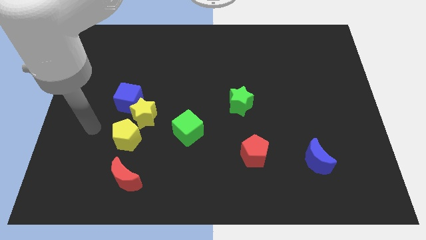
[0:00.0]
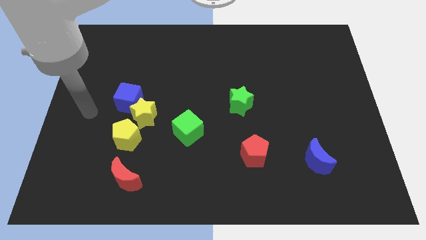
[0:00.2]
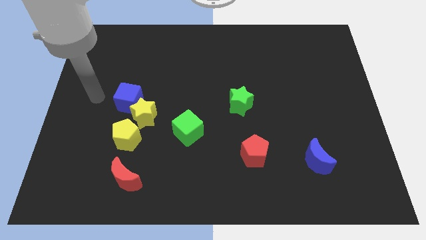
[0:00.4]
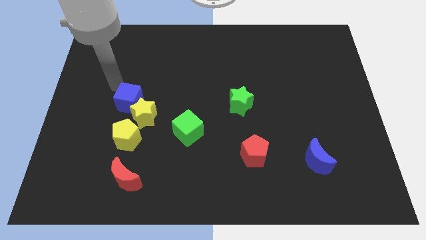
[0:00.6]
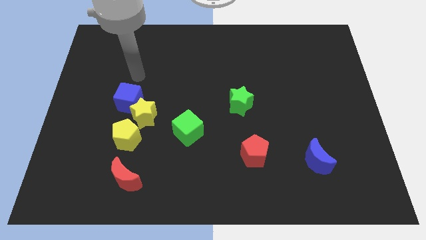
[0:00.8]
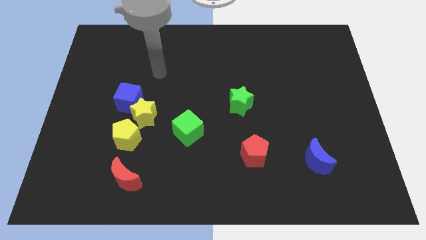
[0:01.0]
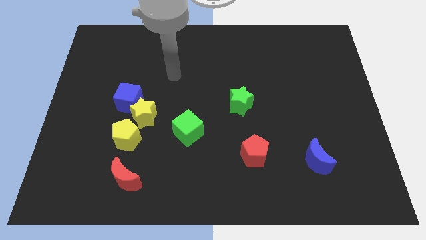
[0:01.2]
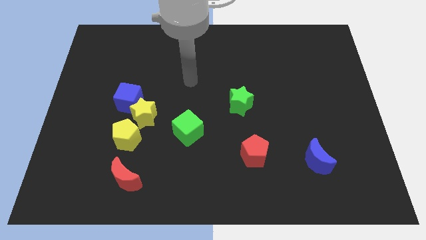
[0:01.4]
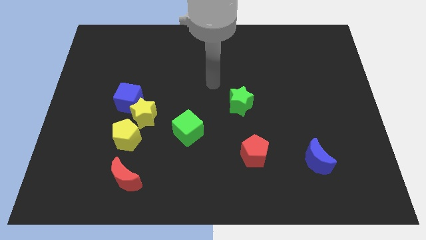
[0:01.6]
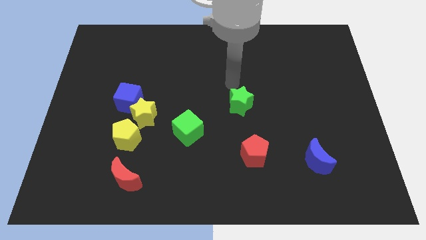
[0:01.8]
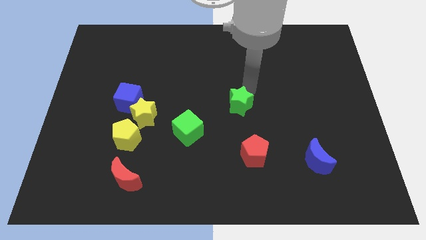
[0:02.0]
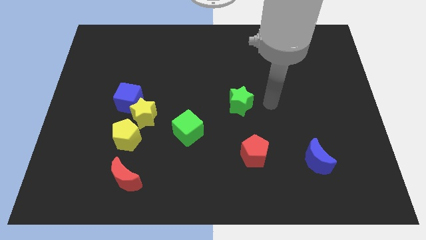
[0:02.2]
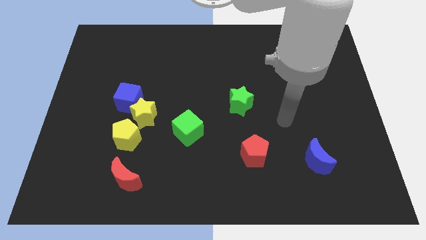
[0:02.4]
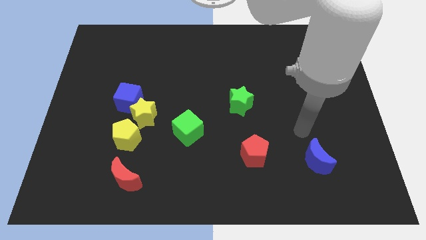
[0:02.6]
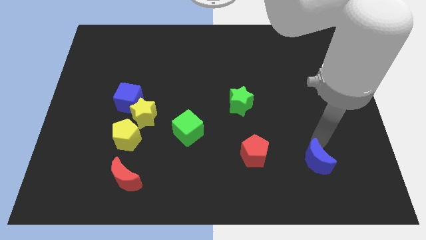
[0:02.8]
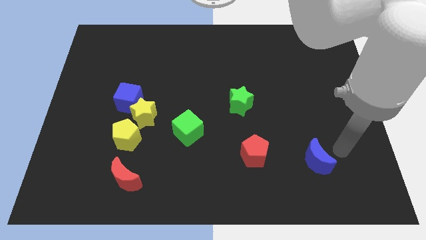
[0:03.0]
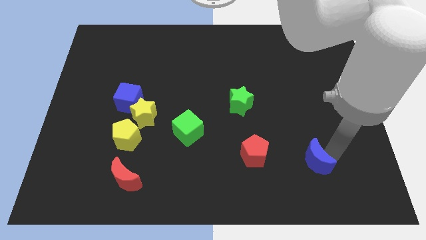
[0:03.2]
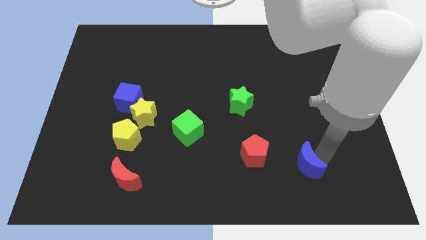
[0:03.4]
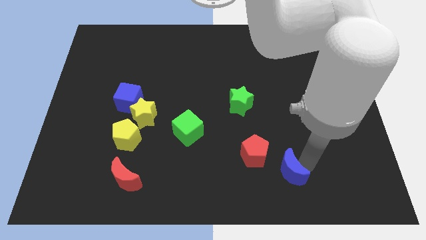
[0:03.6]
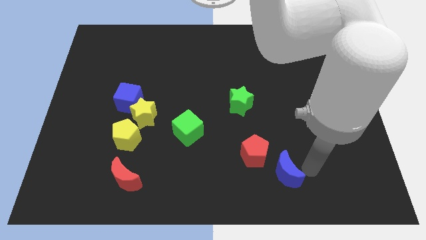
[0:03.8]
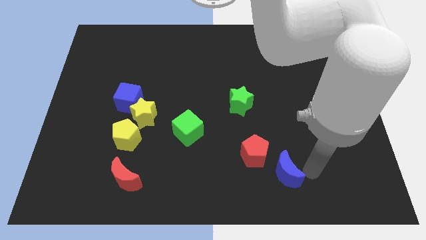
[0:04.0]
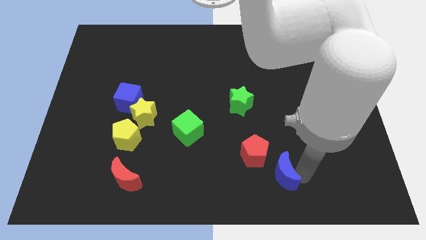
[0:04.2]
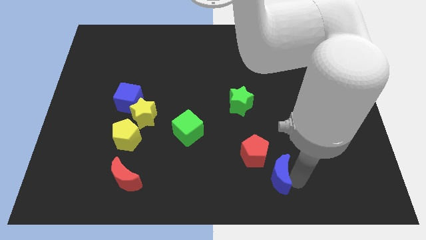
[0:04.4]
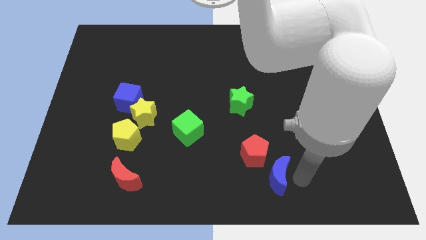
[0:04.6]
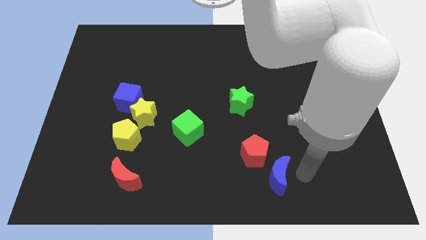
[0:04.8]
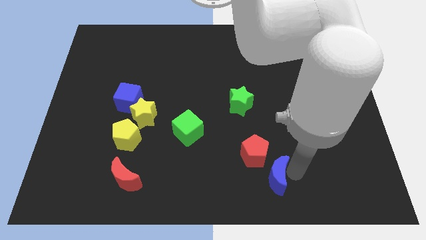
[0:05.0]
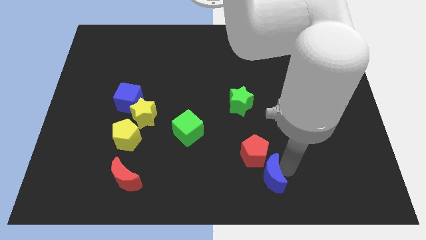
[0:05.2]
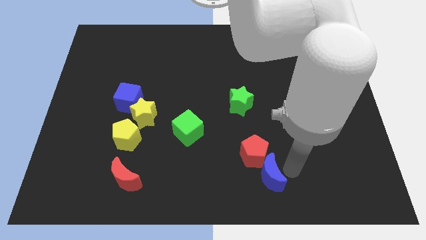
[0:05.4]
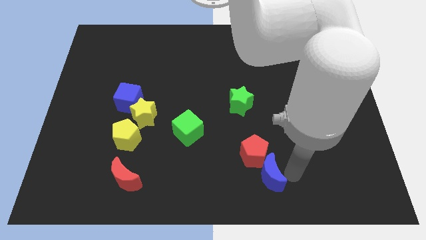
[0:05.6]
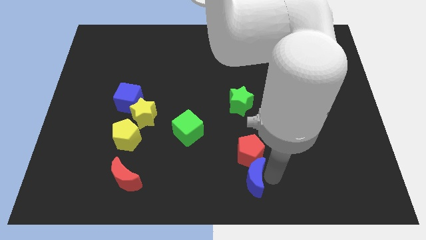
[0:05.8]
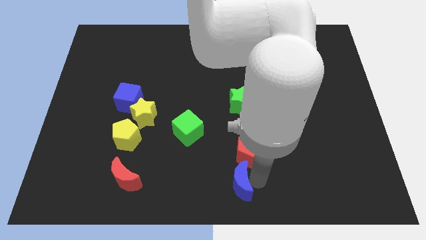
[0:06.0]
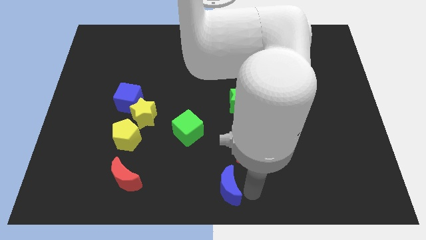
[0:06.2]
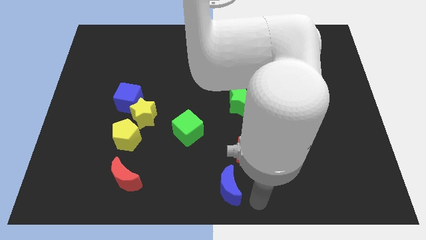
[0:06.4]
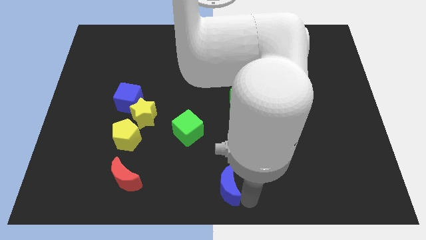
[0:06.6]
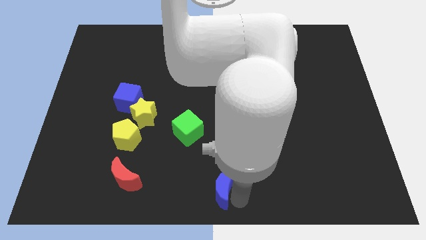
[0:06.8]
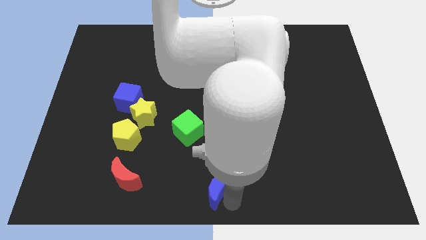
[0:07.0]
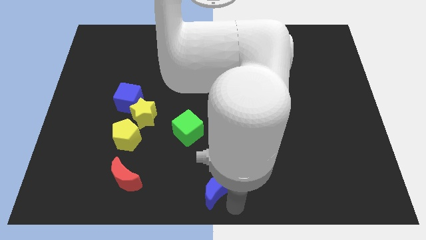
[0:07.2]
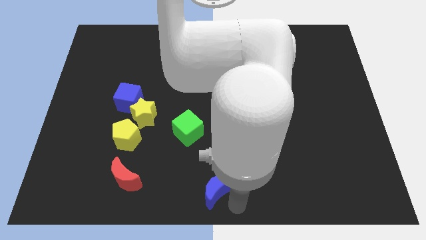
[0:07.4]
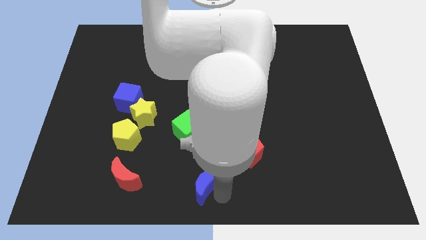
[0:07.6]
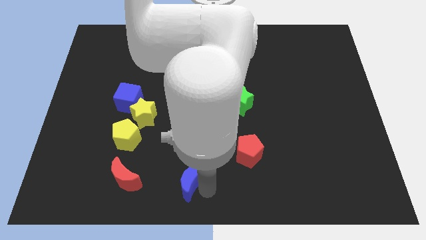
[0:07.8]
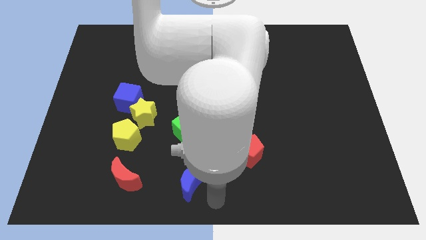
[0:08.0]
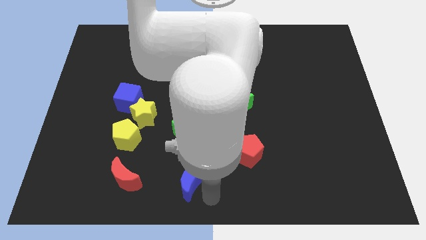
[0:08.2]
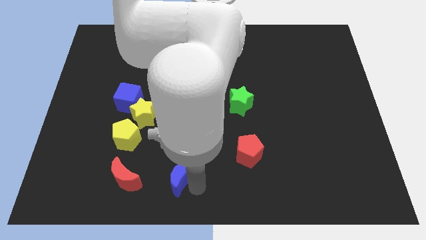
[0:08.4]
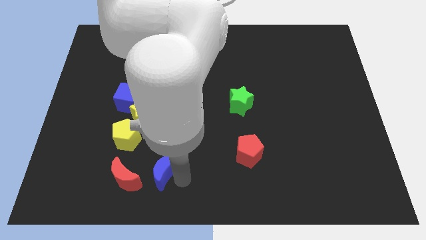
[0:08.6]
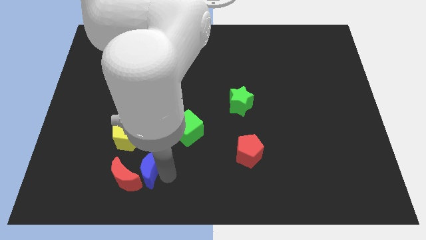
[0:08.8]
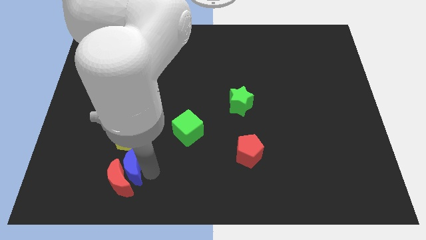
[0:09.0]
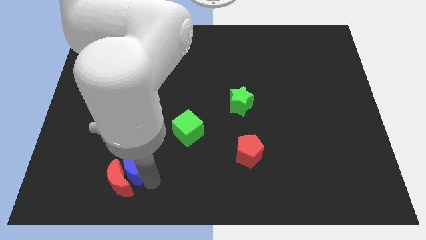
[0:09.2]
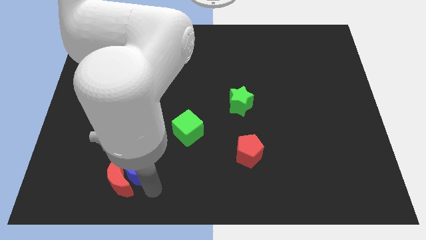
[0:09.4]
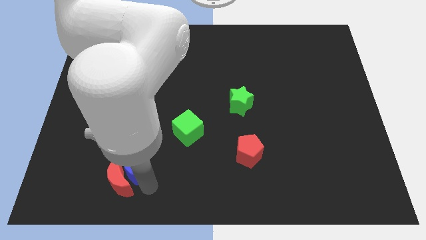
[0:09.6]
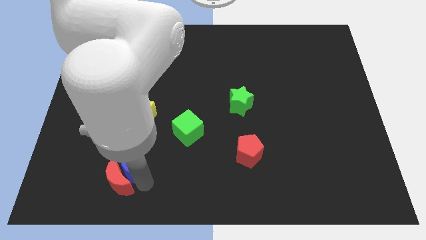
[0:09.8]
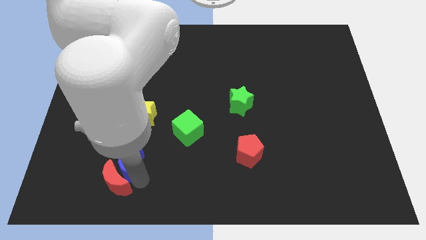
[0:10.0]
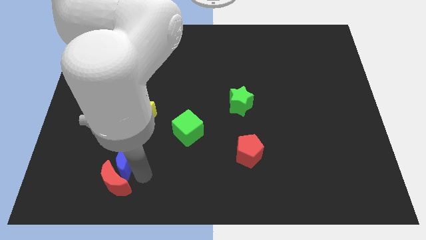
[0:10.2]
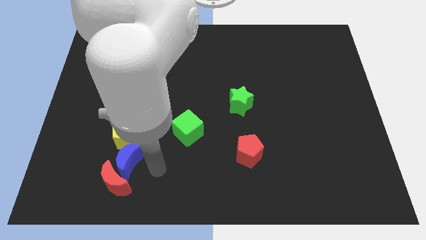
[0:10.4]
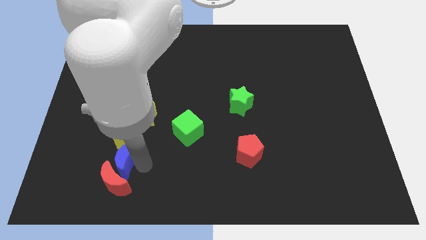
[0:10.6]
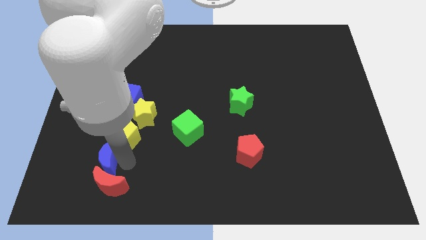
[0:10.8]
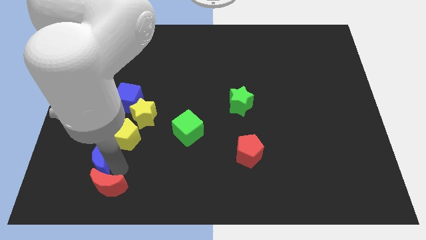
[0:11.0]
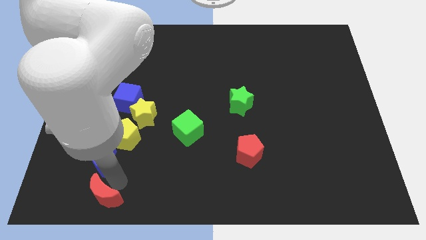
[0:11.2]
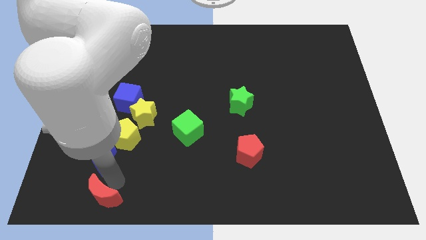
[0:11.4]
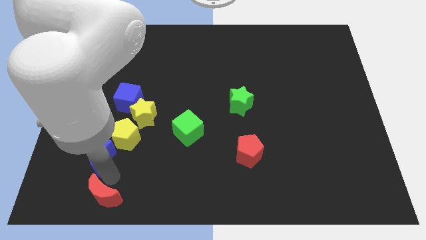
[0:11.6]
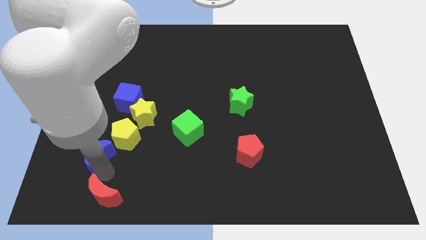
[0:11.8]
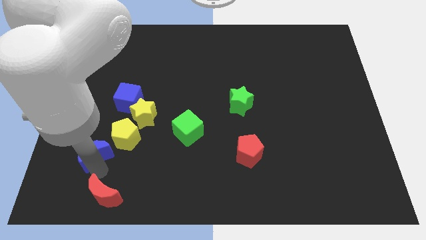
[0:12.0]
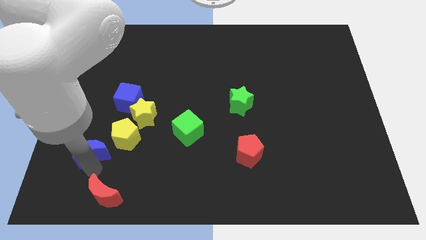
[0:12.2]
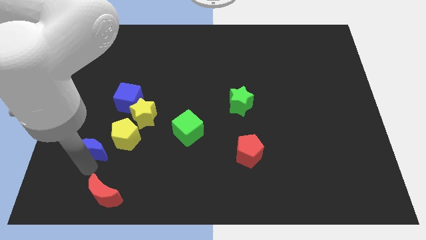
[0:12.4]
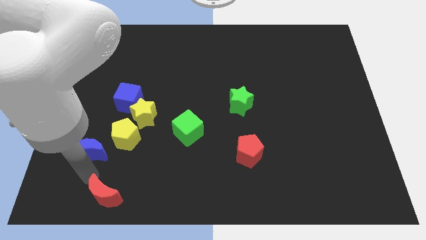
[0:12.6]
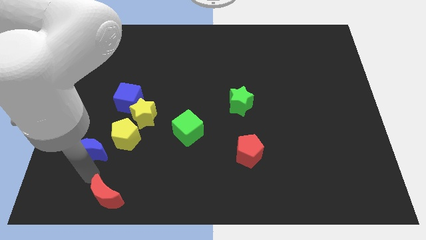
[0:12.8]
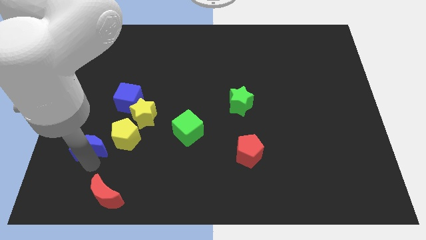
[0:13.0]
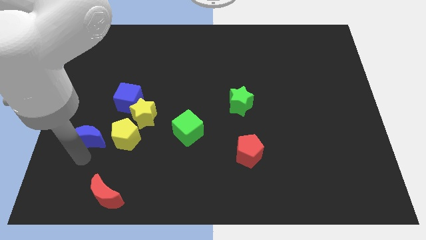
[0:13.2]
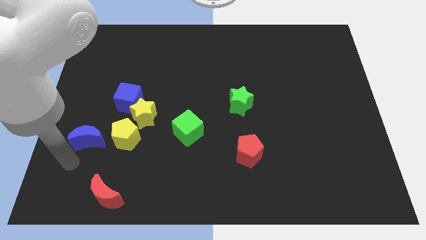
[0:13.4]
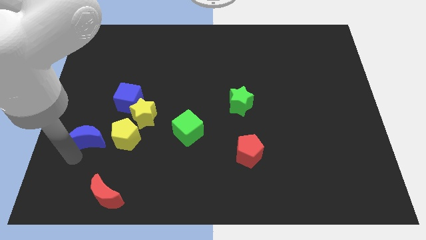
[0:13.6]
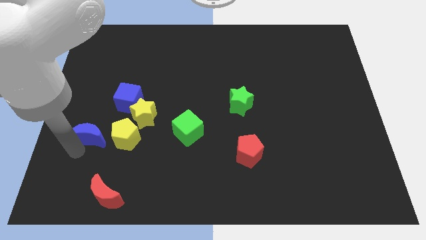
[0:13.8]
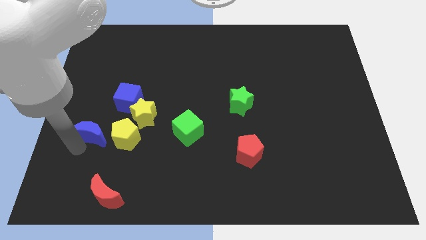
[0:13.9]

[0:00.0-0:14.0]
put the blue moon diagonally up and to the left of the yellow pentagon
